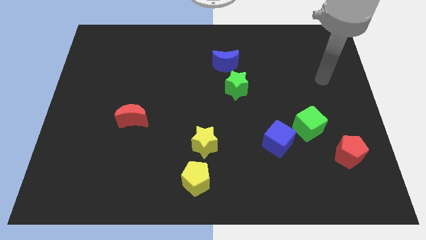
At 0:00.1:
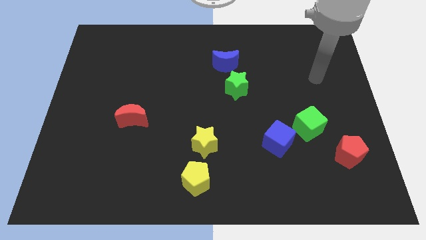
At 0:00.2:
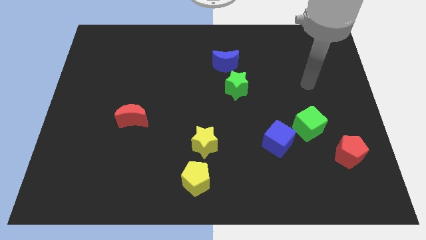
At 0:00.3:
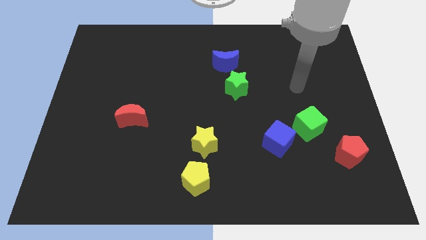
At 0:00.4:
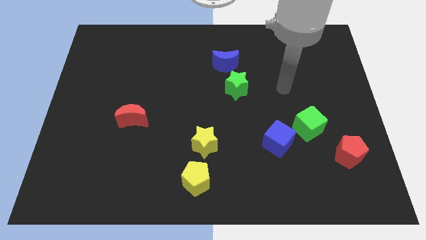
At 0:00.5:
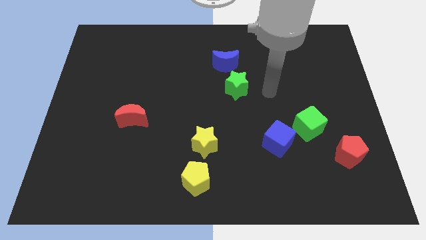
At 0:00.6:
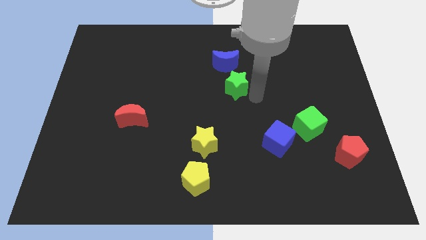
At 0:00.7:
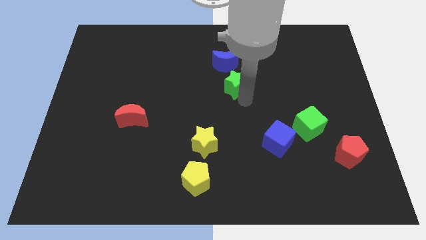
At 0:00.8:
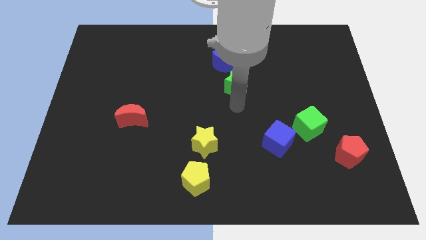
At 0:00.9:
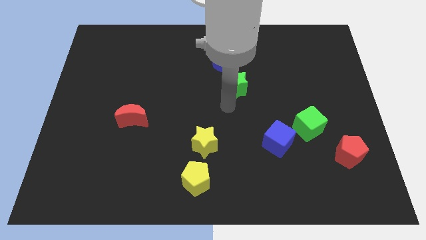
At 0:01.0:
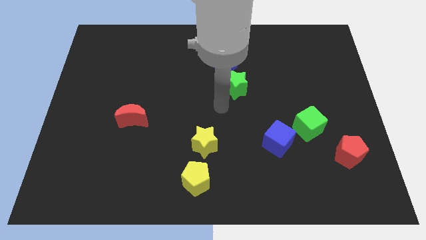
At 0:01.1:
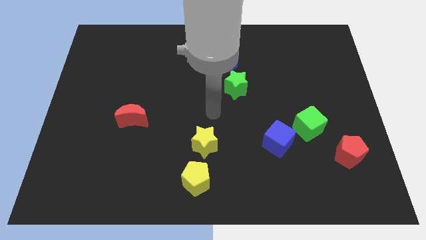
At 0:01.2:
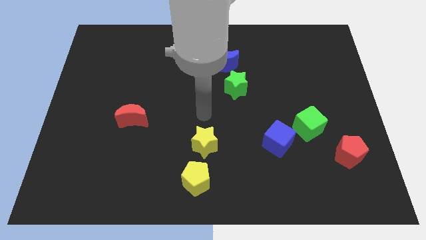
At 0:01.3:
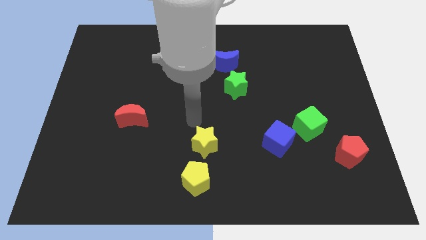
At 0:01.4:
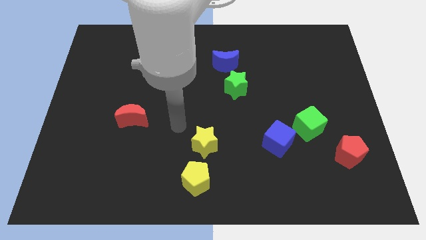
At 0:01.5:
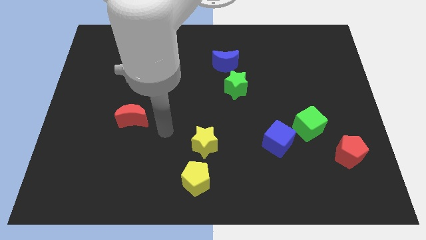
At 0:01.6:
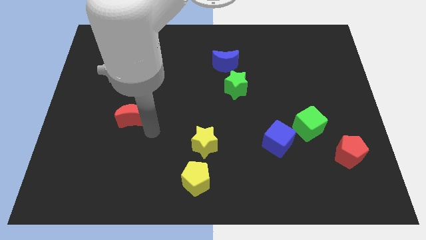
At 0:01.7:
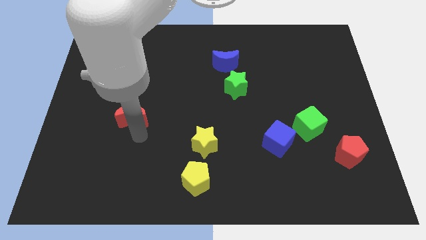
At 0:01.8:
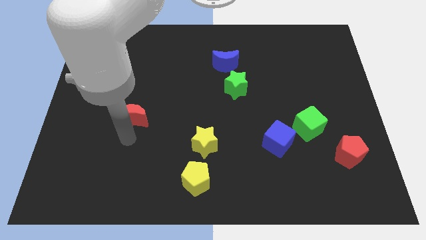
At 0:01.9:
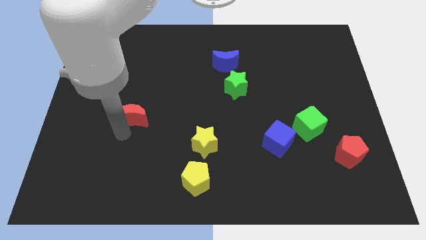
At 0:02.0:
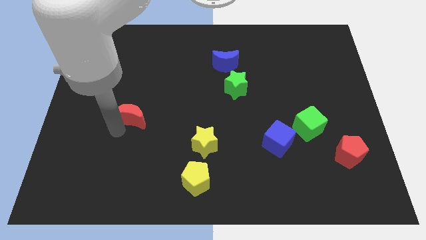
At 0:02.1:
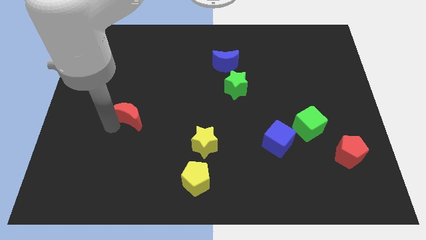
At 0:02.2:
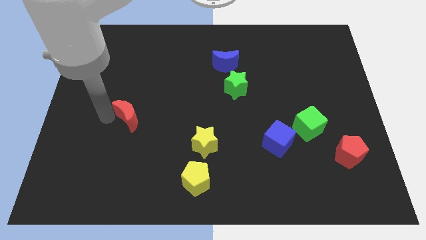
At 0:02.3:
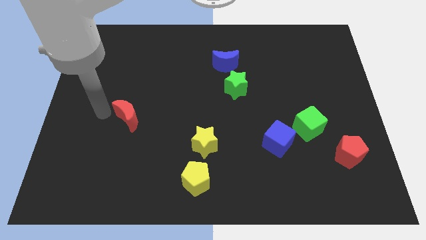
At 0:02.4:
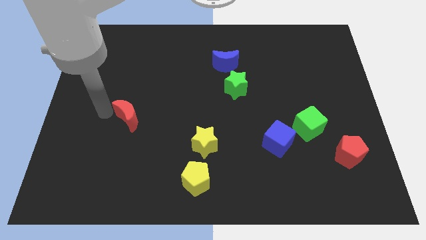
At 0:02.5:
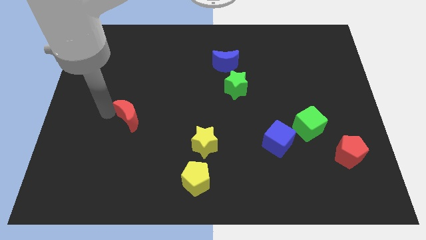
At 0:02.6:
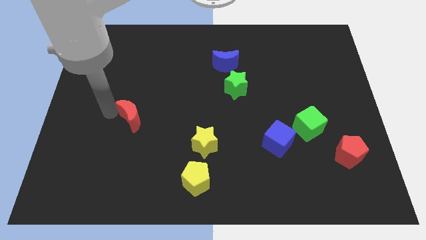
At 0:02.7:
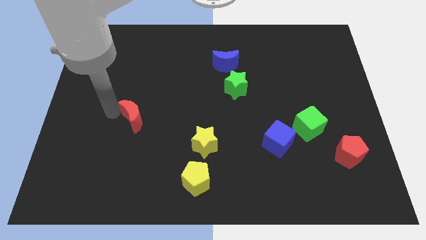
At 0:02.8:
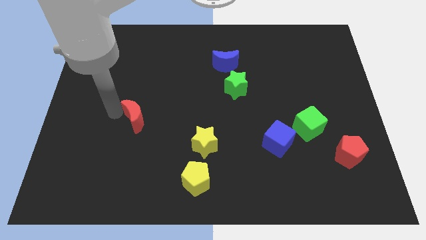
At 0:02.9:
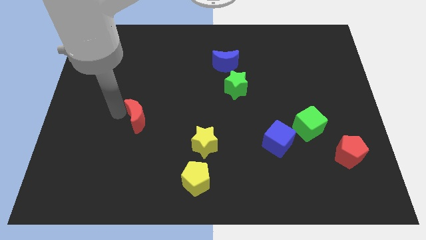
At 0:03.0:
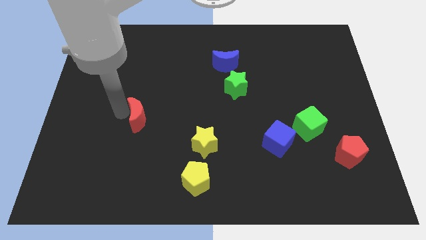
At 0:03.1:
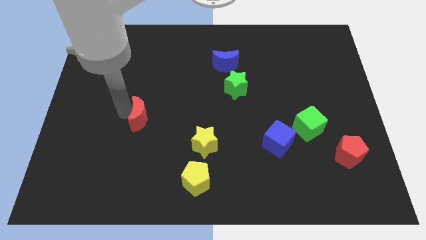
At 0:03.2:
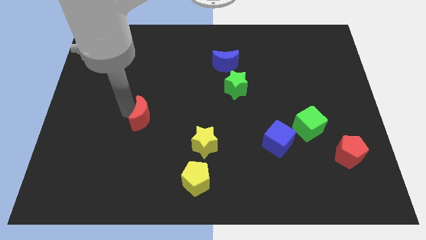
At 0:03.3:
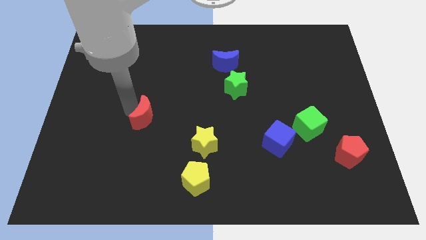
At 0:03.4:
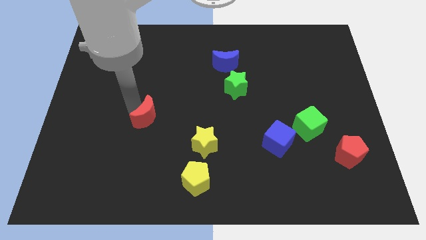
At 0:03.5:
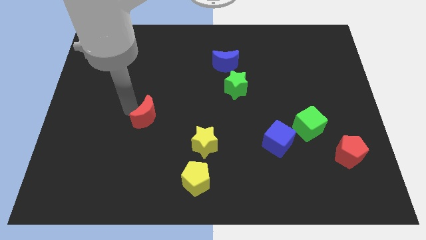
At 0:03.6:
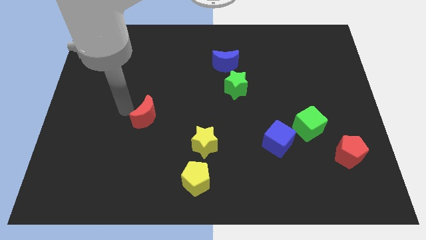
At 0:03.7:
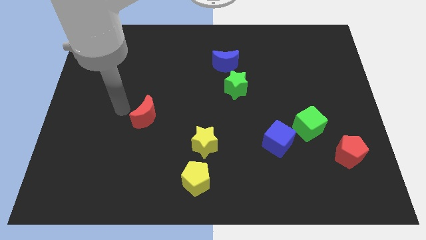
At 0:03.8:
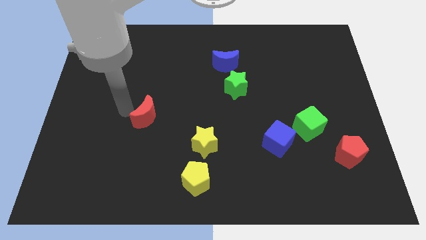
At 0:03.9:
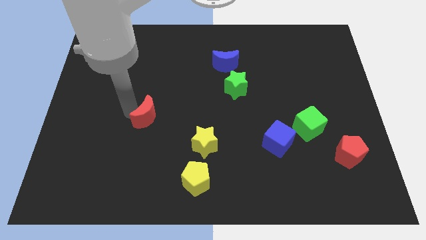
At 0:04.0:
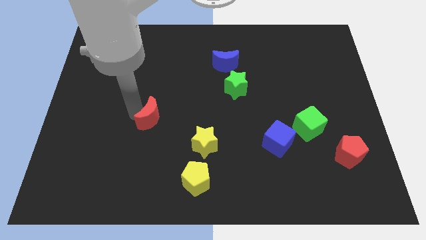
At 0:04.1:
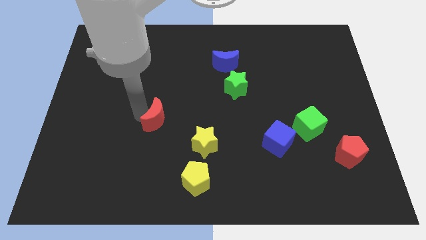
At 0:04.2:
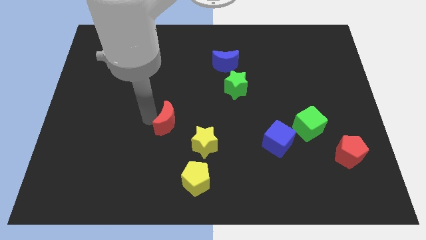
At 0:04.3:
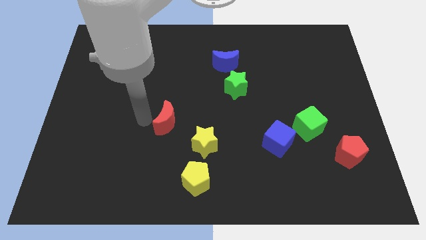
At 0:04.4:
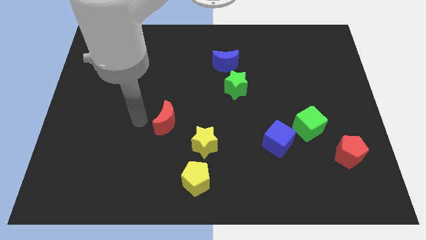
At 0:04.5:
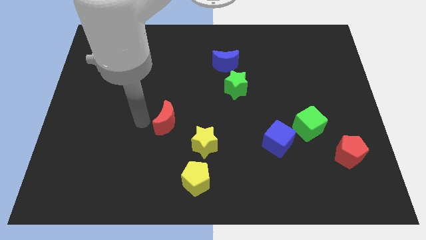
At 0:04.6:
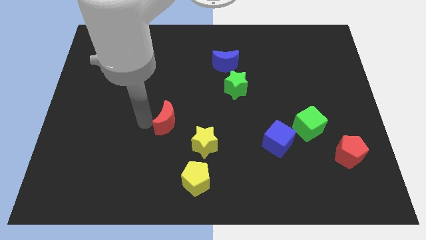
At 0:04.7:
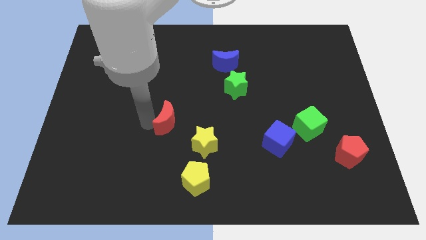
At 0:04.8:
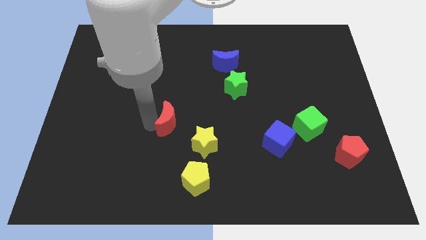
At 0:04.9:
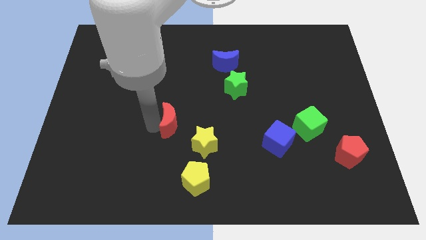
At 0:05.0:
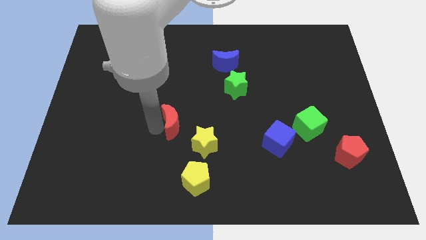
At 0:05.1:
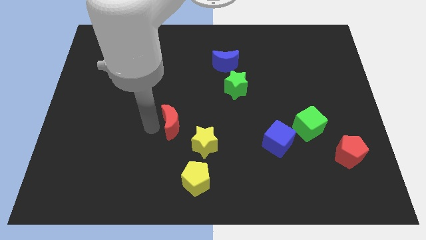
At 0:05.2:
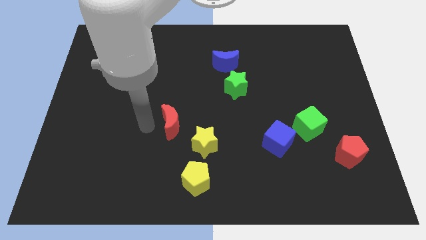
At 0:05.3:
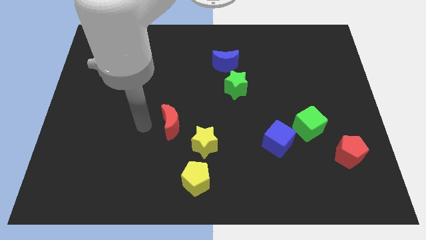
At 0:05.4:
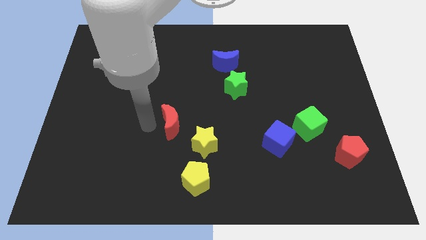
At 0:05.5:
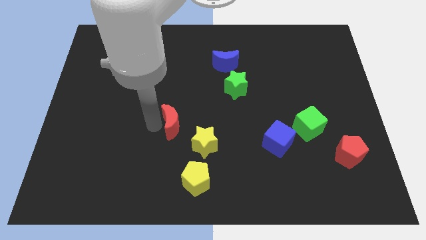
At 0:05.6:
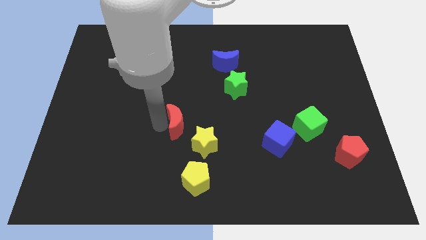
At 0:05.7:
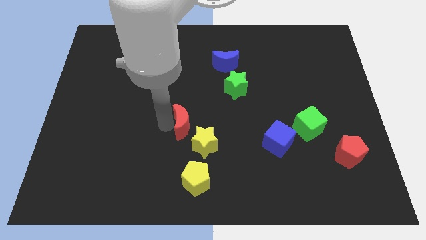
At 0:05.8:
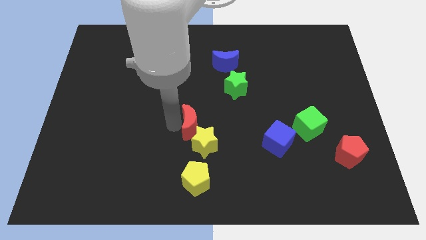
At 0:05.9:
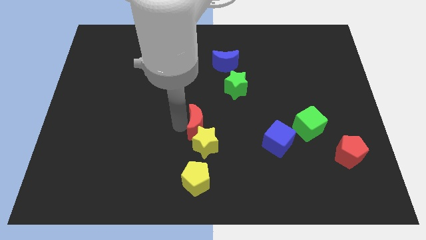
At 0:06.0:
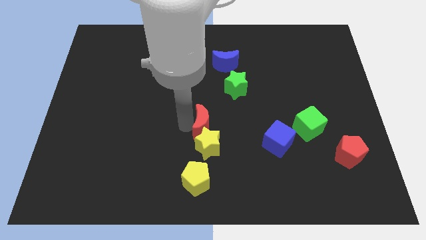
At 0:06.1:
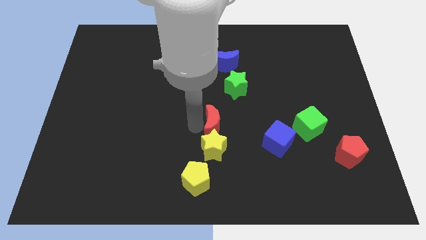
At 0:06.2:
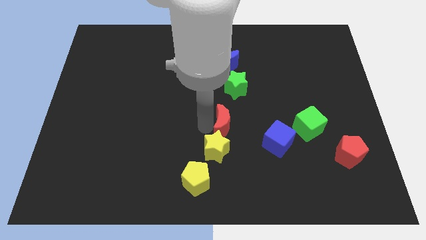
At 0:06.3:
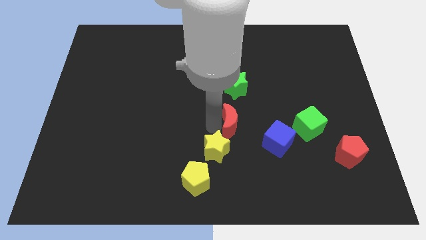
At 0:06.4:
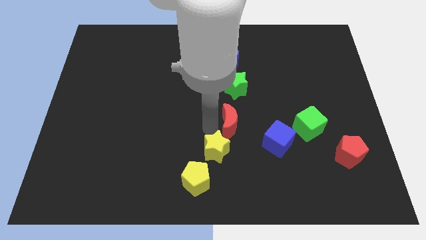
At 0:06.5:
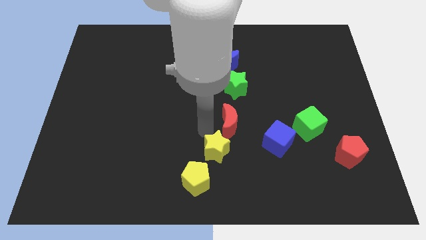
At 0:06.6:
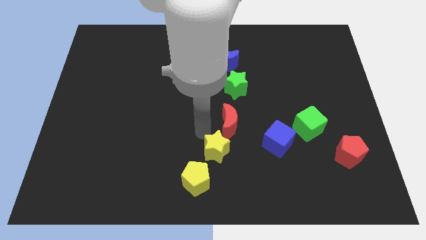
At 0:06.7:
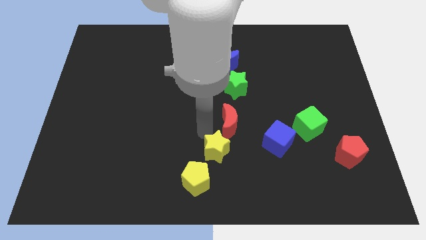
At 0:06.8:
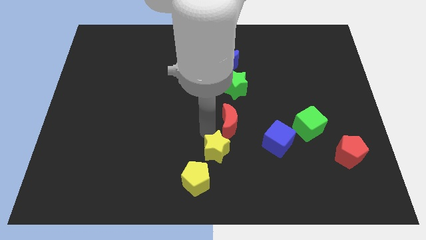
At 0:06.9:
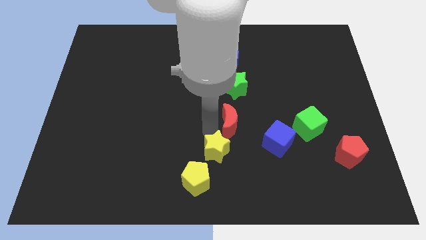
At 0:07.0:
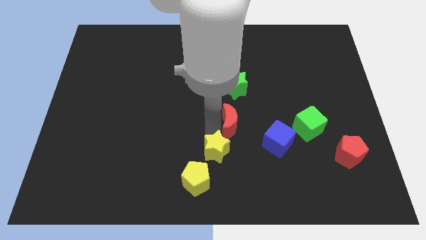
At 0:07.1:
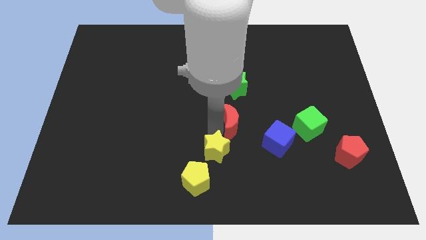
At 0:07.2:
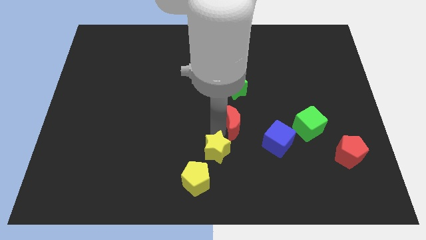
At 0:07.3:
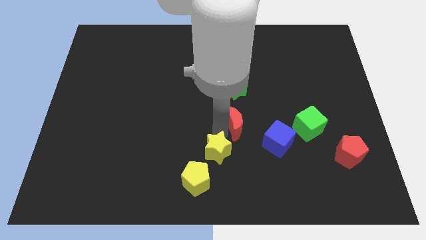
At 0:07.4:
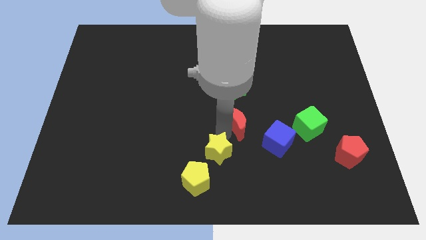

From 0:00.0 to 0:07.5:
put the red moon to the left of the green cube
